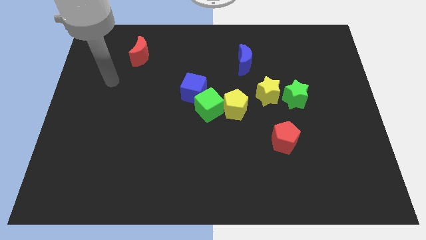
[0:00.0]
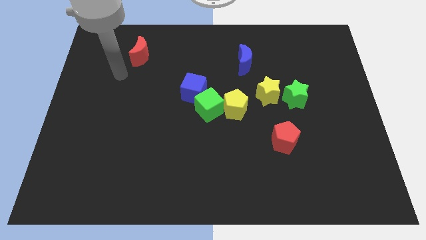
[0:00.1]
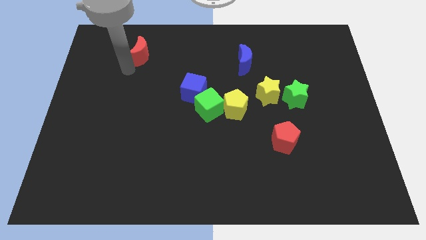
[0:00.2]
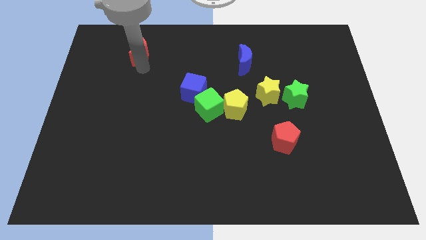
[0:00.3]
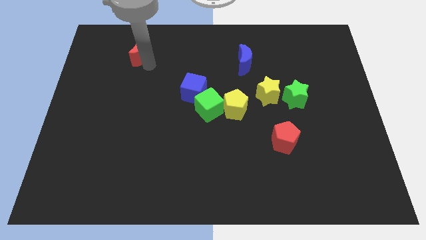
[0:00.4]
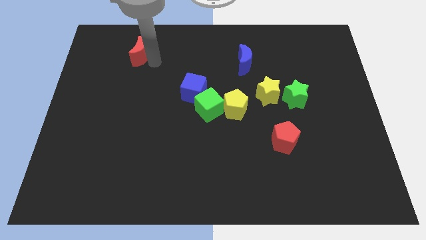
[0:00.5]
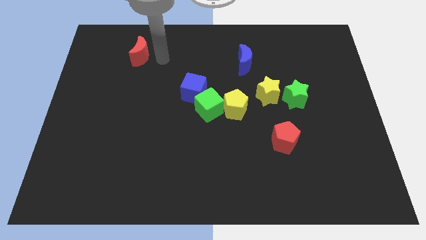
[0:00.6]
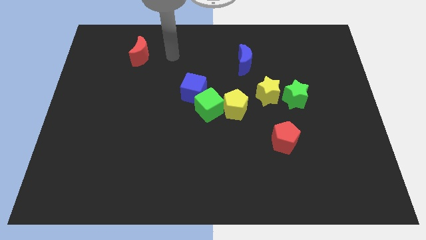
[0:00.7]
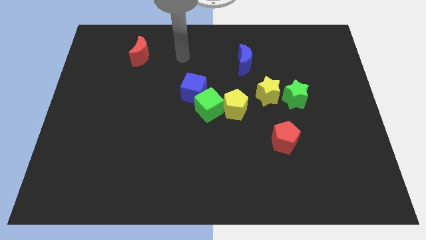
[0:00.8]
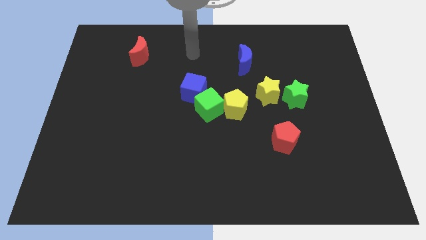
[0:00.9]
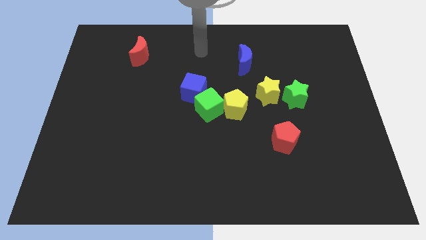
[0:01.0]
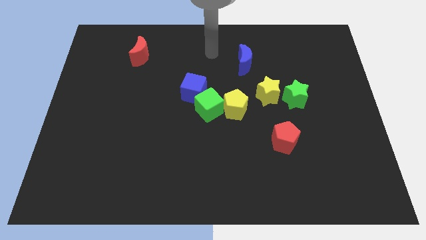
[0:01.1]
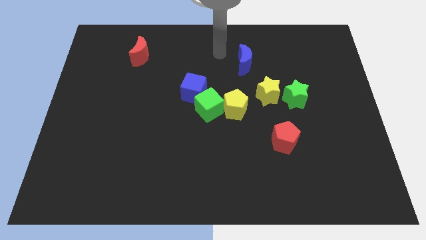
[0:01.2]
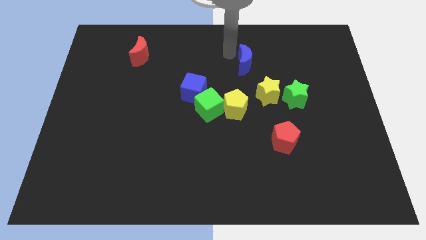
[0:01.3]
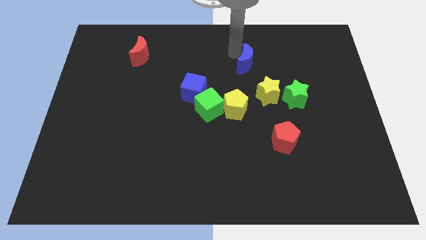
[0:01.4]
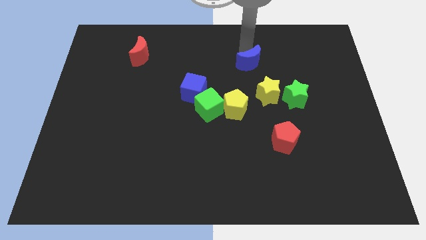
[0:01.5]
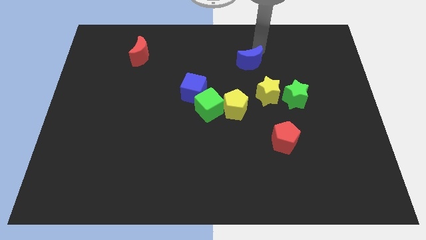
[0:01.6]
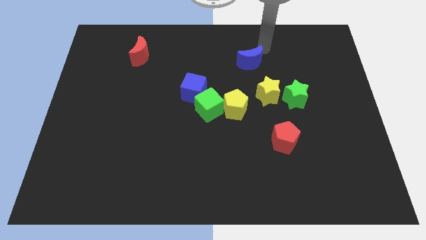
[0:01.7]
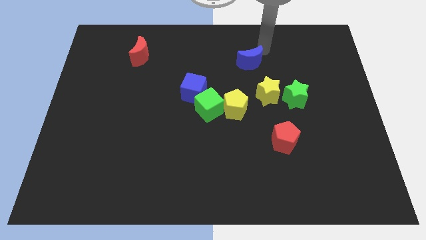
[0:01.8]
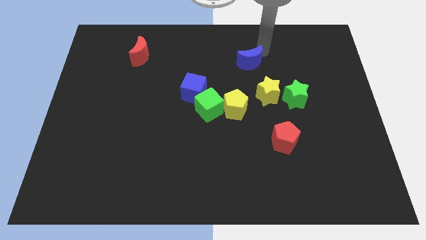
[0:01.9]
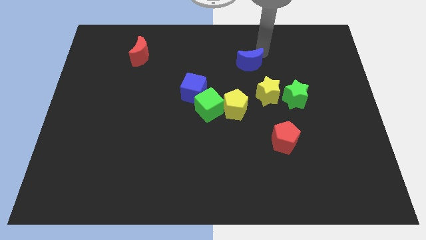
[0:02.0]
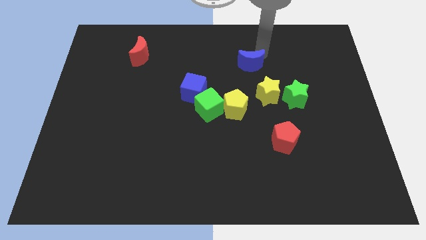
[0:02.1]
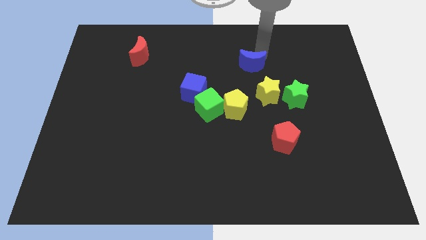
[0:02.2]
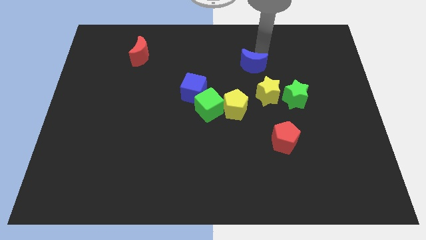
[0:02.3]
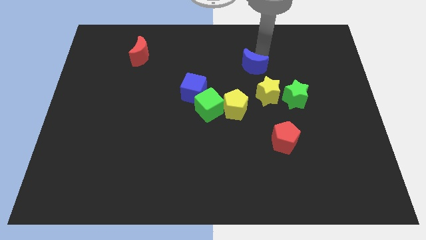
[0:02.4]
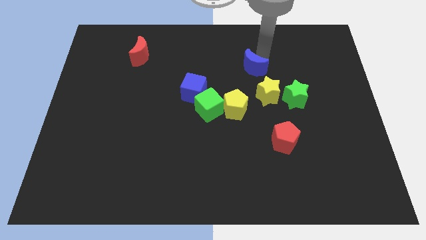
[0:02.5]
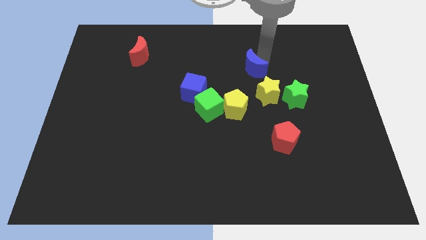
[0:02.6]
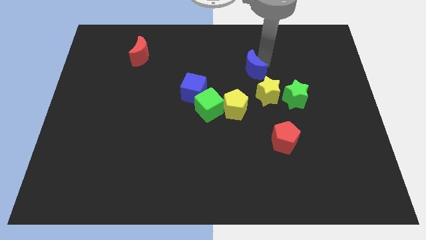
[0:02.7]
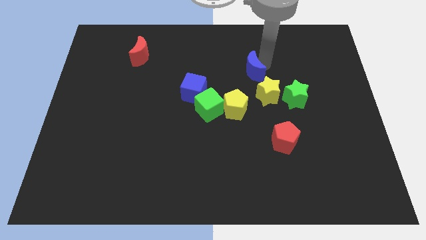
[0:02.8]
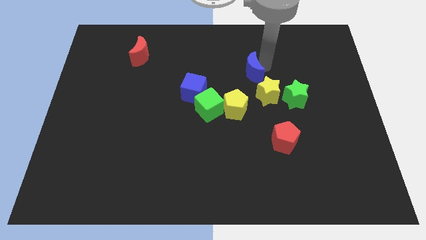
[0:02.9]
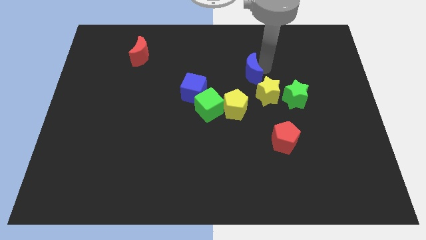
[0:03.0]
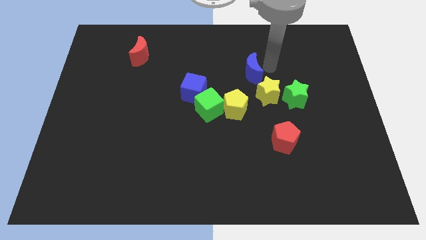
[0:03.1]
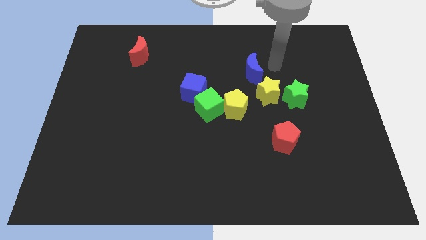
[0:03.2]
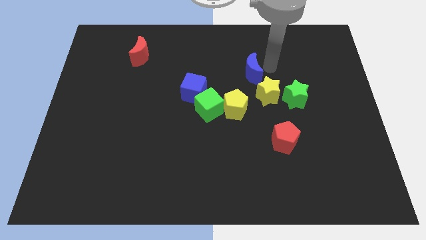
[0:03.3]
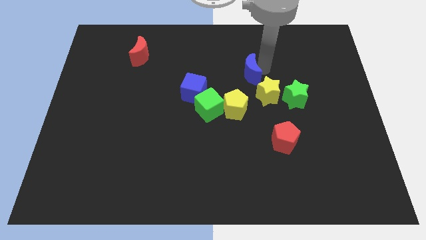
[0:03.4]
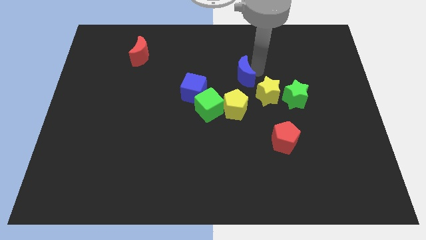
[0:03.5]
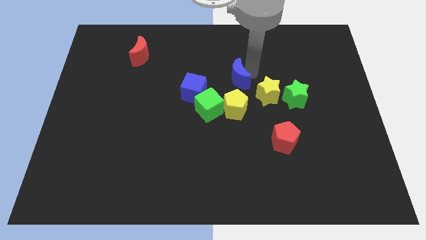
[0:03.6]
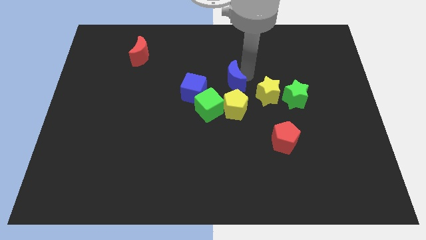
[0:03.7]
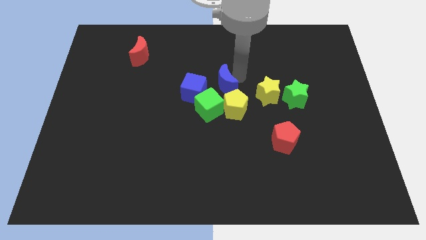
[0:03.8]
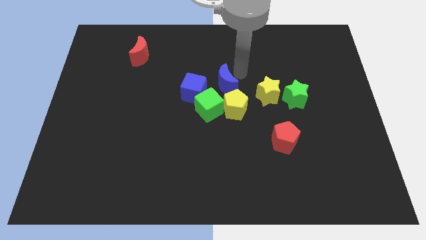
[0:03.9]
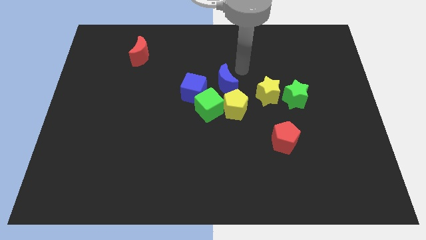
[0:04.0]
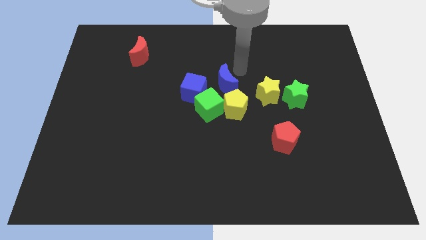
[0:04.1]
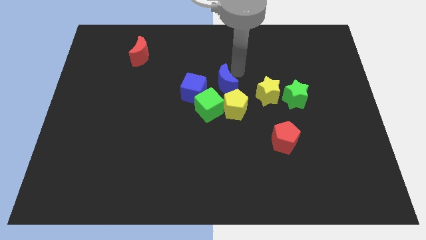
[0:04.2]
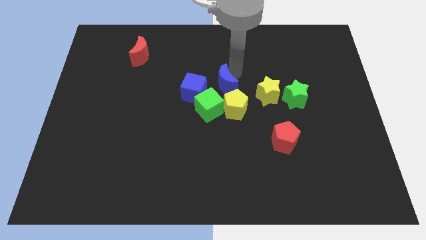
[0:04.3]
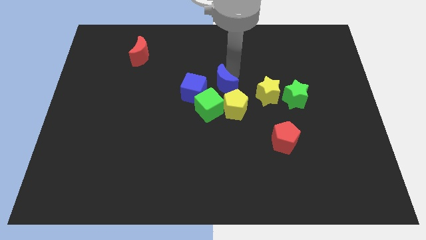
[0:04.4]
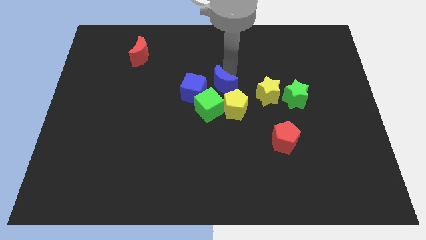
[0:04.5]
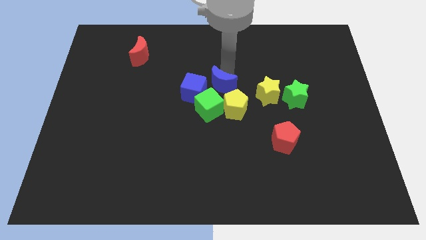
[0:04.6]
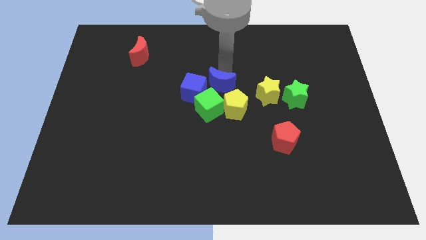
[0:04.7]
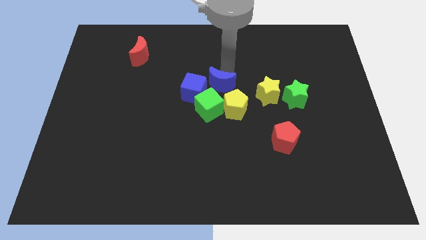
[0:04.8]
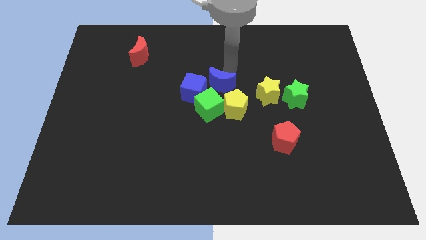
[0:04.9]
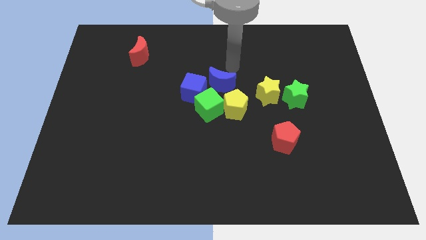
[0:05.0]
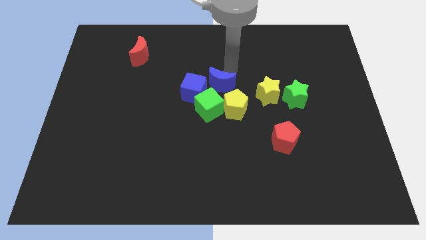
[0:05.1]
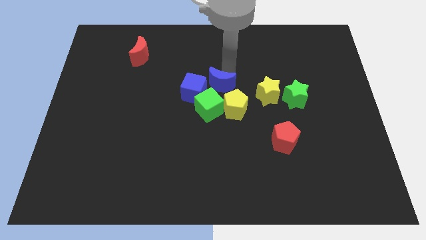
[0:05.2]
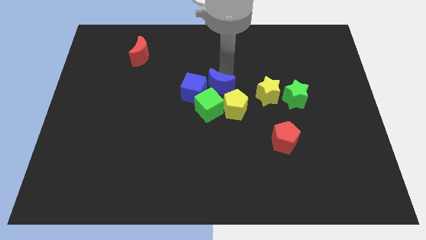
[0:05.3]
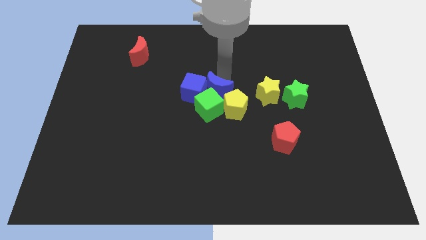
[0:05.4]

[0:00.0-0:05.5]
put the blue moon close to the green cube

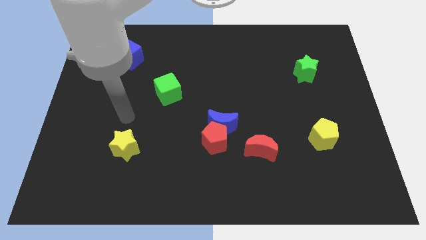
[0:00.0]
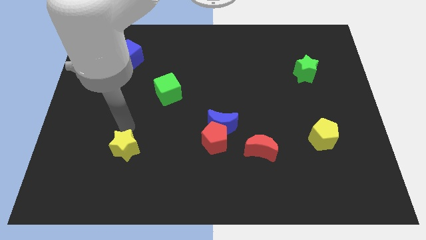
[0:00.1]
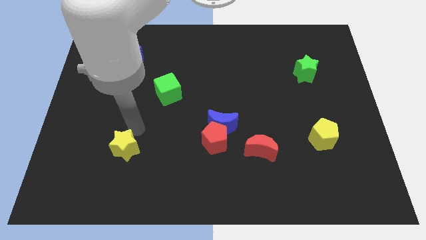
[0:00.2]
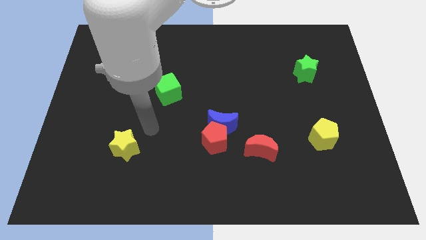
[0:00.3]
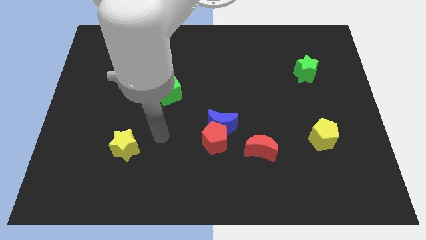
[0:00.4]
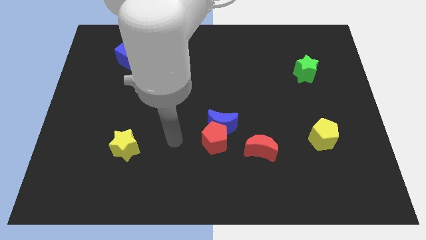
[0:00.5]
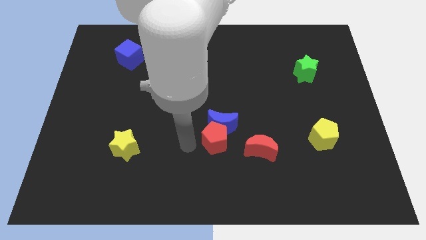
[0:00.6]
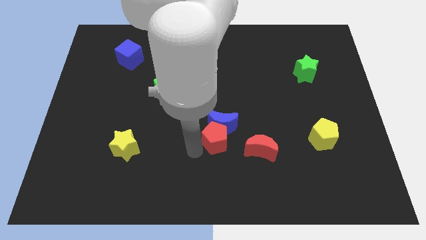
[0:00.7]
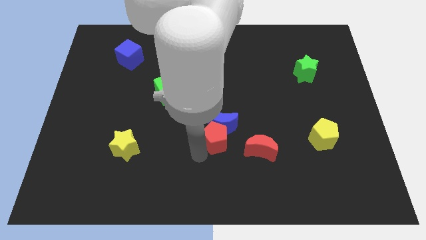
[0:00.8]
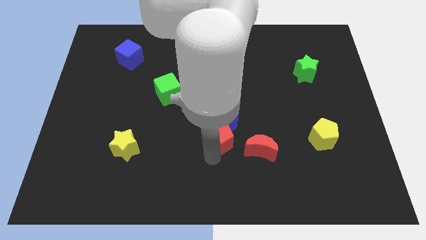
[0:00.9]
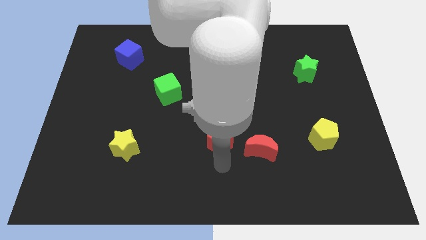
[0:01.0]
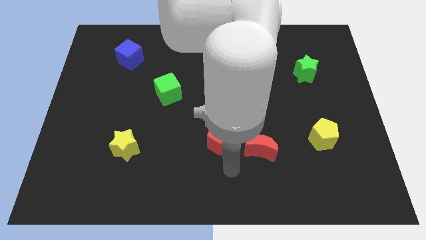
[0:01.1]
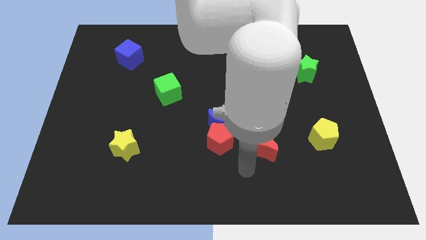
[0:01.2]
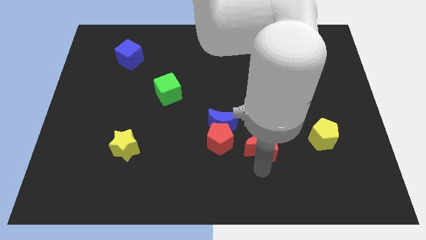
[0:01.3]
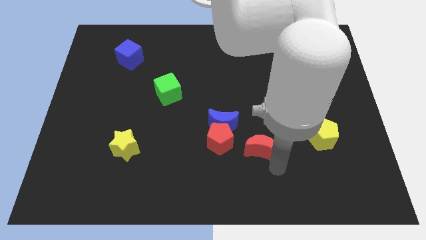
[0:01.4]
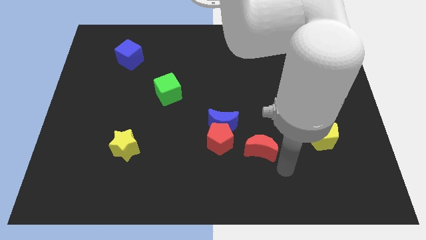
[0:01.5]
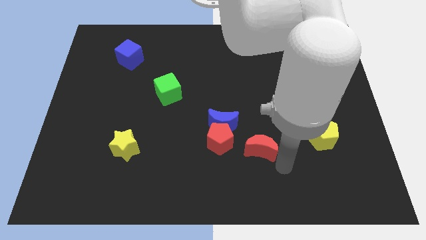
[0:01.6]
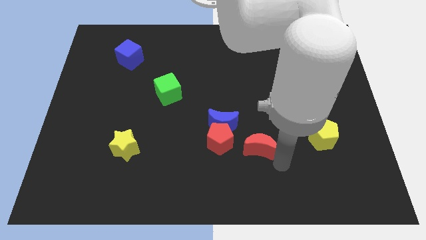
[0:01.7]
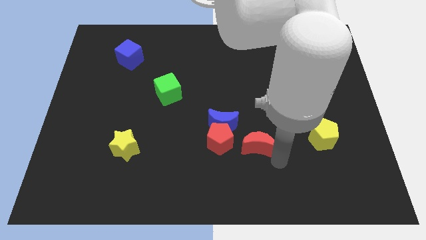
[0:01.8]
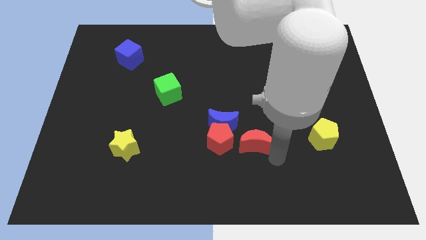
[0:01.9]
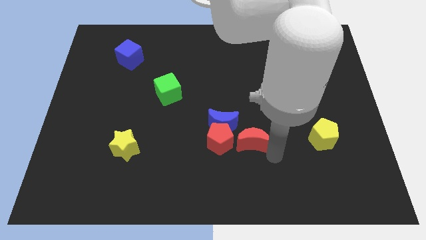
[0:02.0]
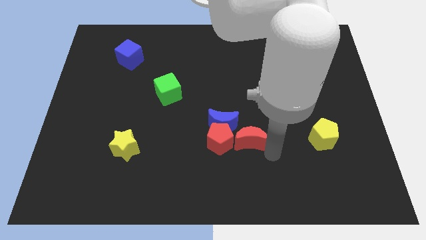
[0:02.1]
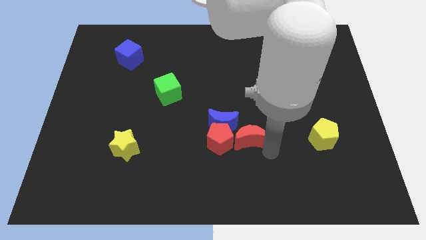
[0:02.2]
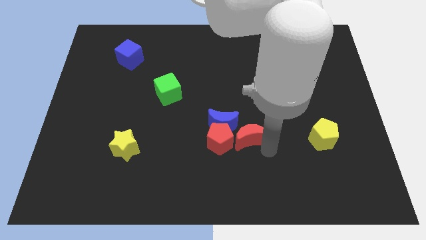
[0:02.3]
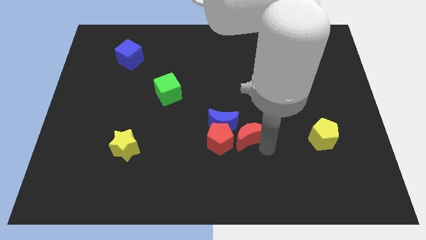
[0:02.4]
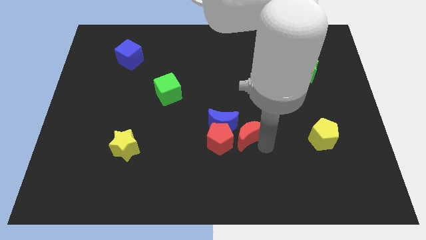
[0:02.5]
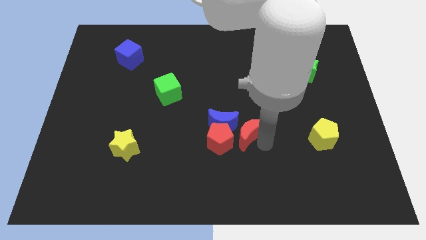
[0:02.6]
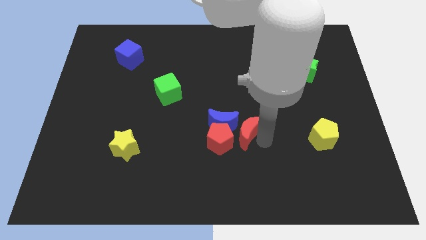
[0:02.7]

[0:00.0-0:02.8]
move the red moon close to the blue moon
